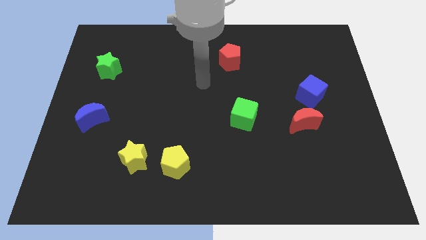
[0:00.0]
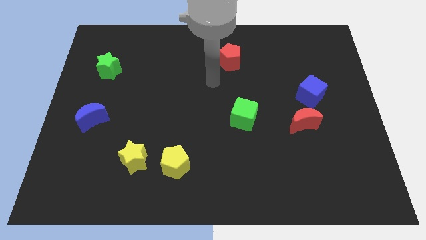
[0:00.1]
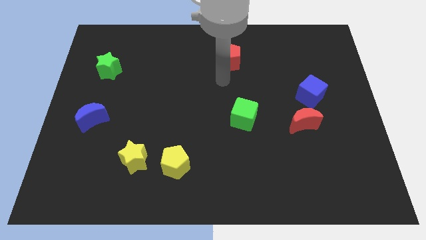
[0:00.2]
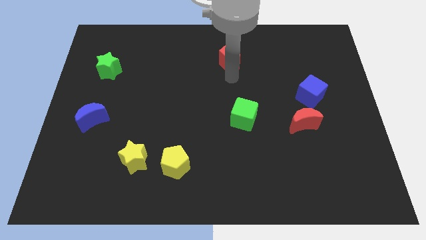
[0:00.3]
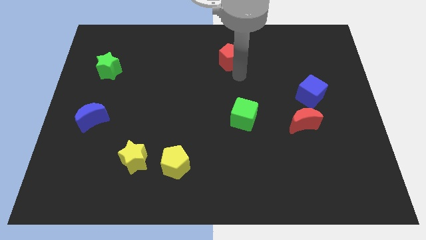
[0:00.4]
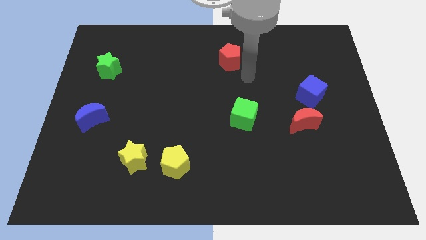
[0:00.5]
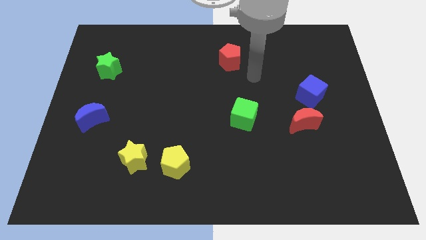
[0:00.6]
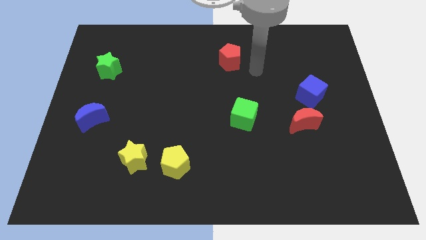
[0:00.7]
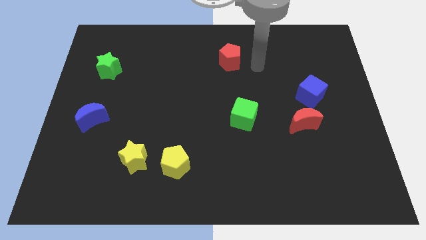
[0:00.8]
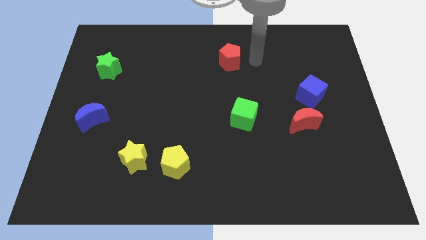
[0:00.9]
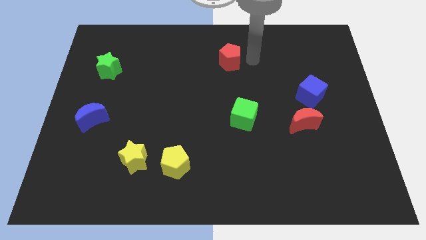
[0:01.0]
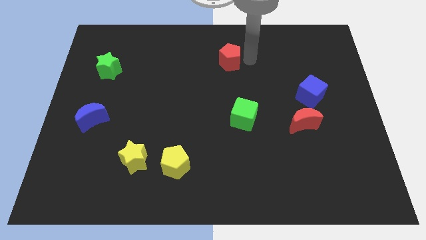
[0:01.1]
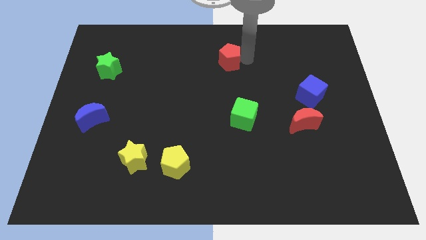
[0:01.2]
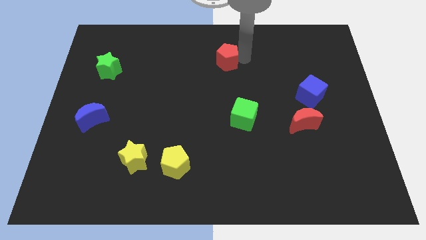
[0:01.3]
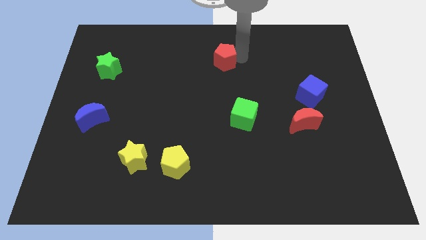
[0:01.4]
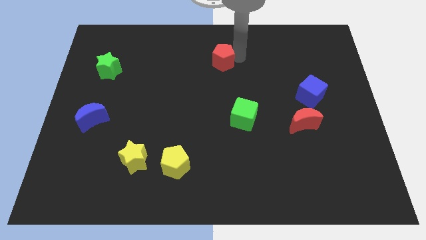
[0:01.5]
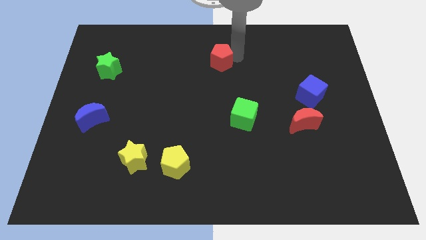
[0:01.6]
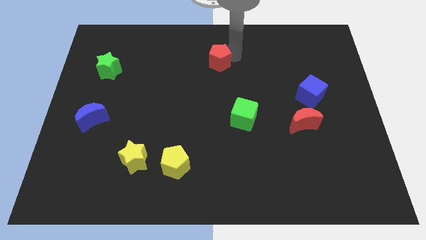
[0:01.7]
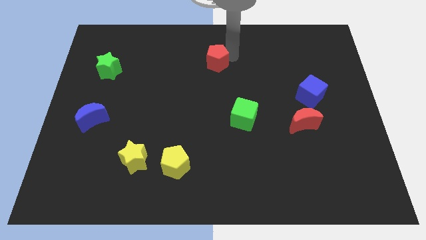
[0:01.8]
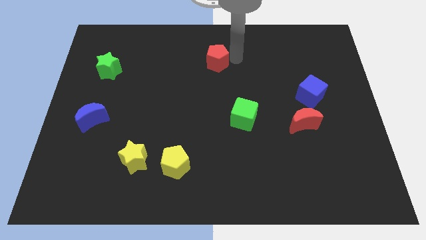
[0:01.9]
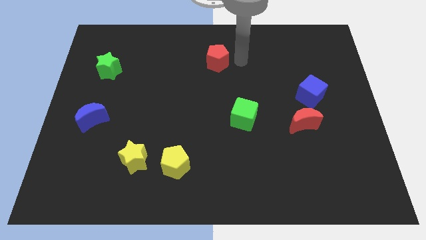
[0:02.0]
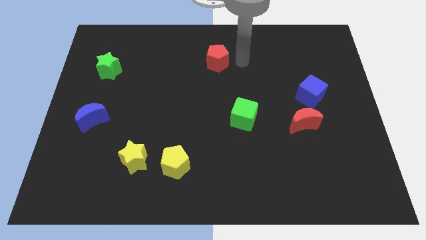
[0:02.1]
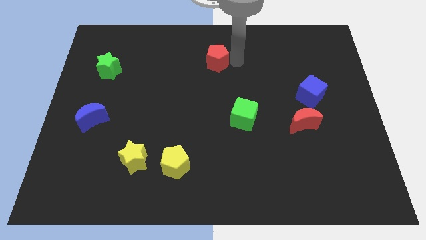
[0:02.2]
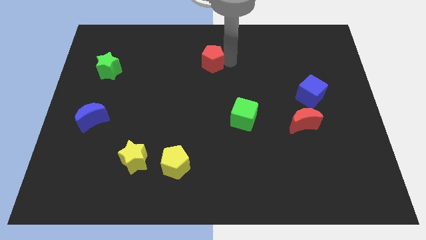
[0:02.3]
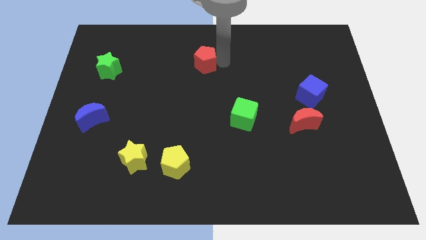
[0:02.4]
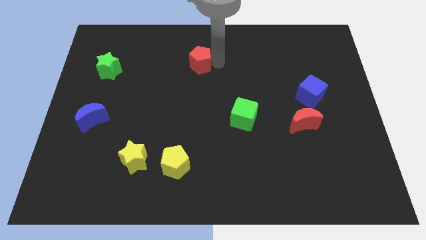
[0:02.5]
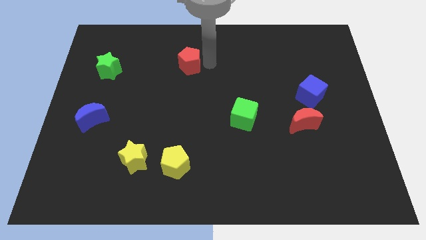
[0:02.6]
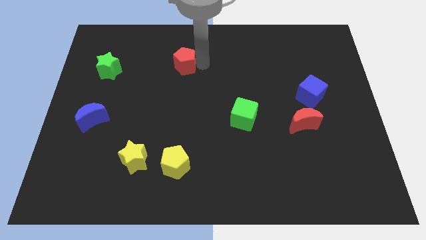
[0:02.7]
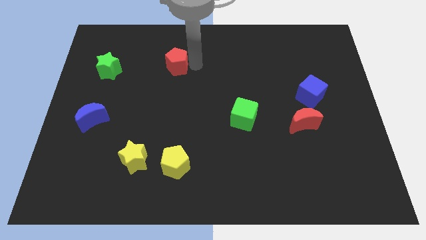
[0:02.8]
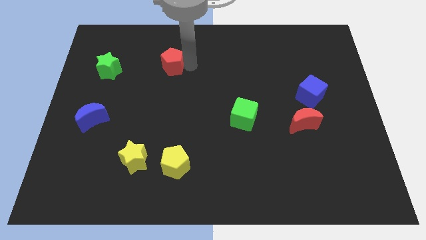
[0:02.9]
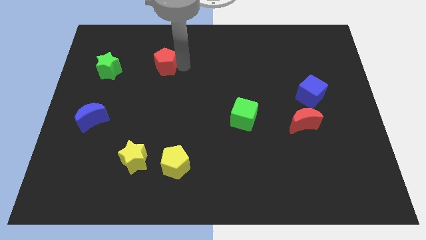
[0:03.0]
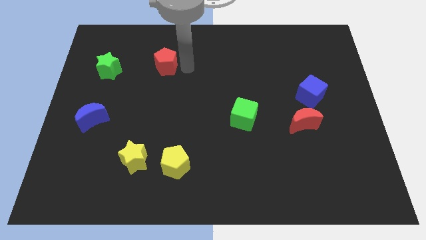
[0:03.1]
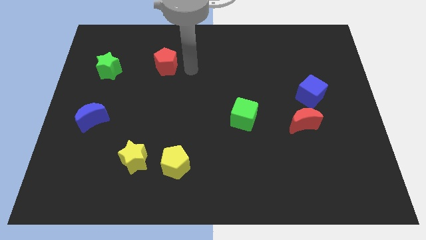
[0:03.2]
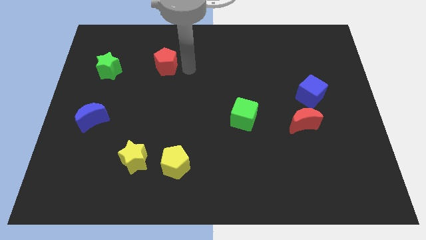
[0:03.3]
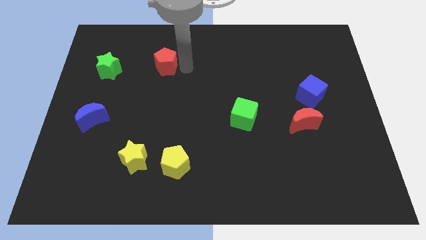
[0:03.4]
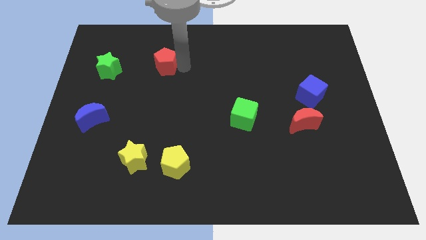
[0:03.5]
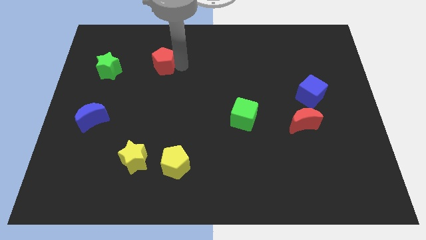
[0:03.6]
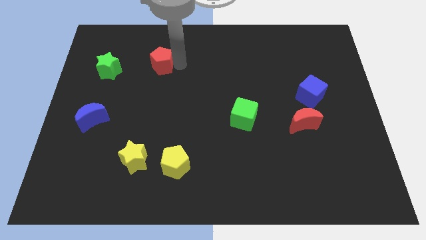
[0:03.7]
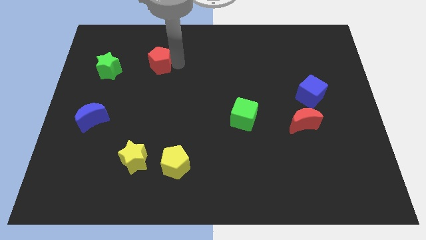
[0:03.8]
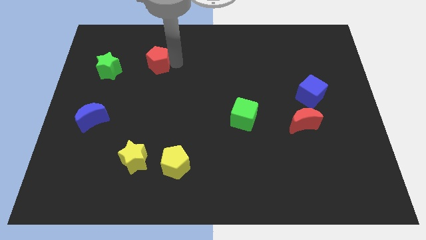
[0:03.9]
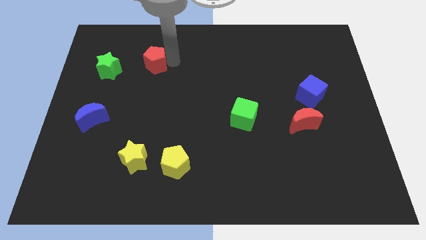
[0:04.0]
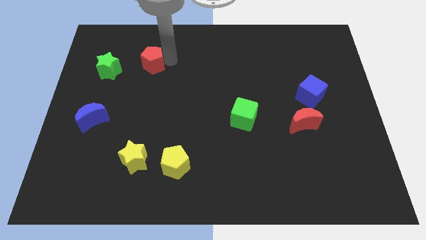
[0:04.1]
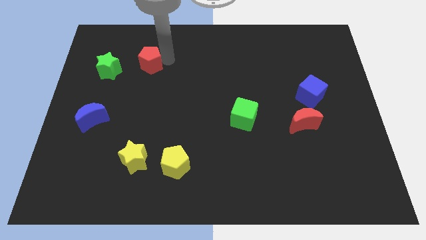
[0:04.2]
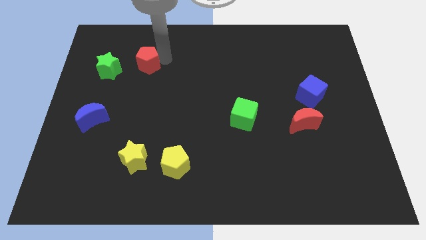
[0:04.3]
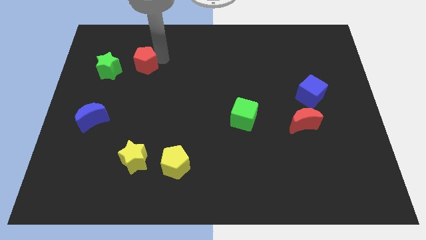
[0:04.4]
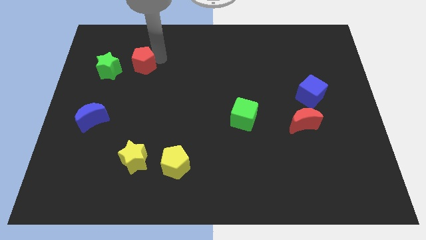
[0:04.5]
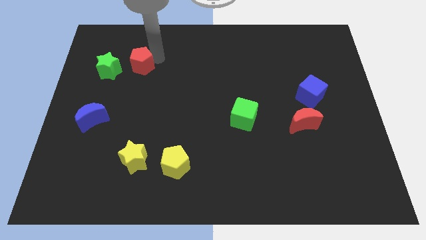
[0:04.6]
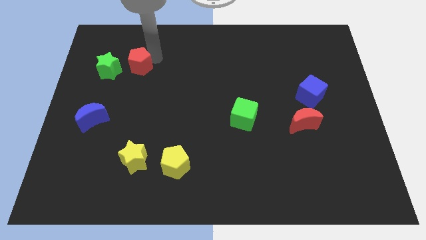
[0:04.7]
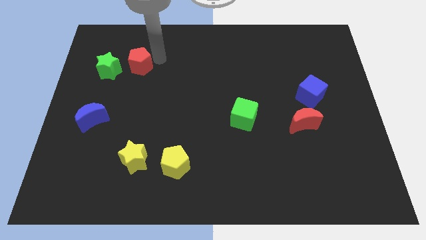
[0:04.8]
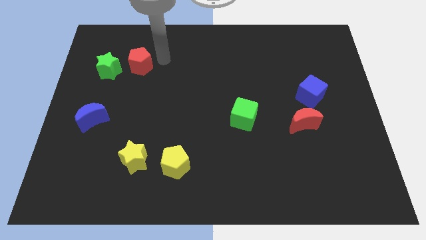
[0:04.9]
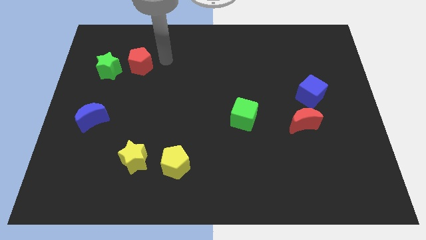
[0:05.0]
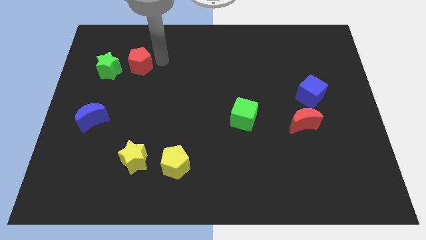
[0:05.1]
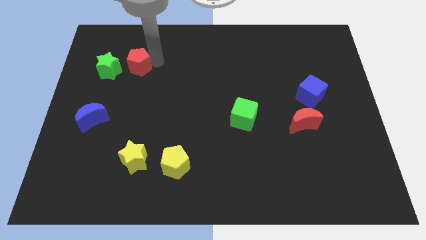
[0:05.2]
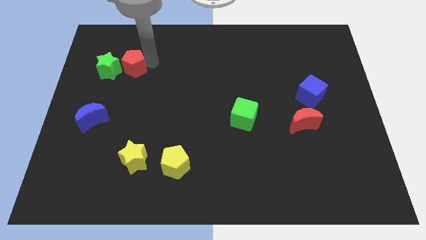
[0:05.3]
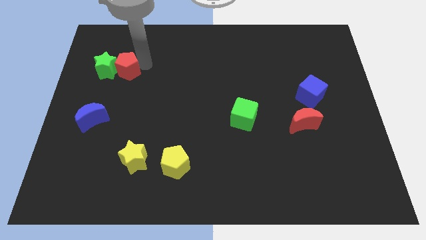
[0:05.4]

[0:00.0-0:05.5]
slide the red pentagon next to the green star
